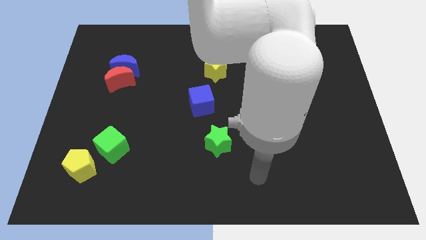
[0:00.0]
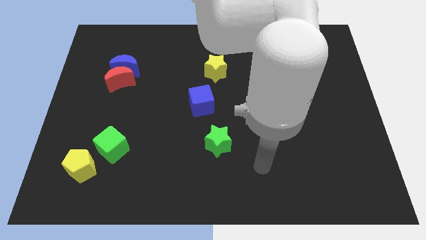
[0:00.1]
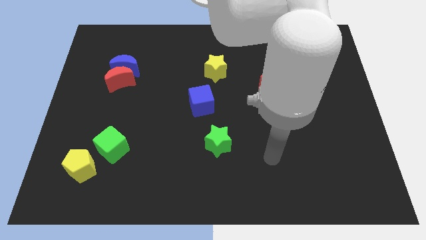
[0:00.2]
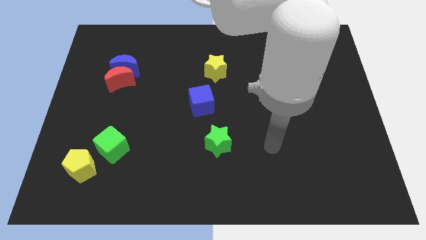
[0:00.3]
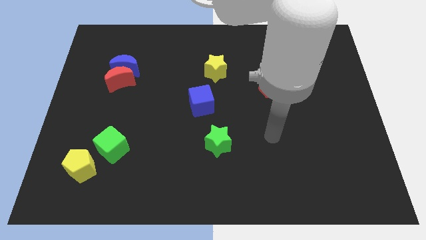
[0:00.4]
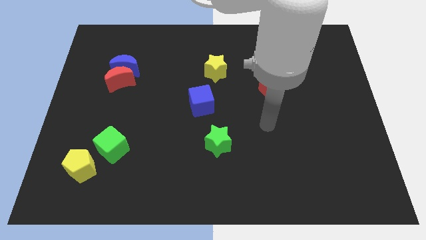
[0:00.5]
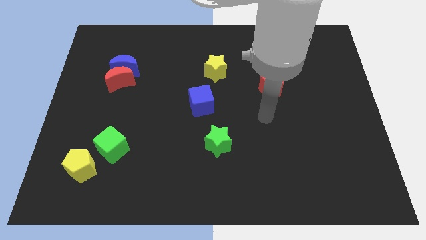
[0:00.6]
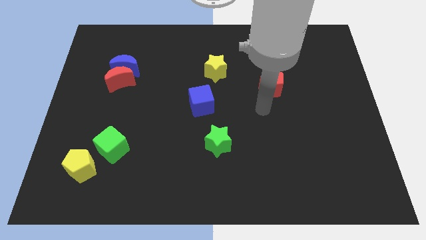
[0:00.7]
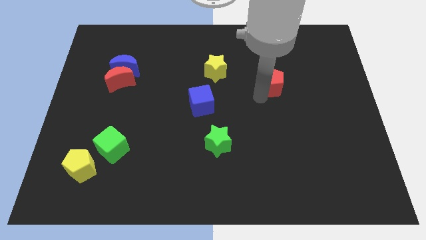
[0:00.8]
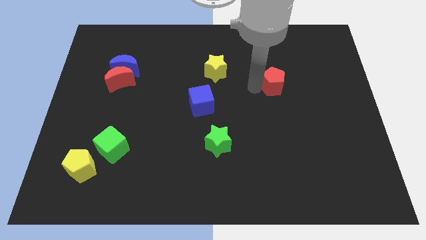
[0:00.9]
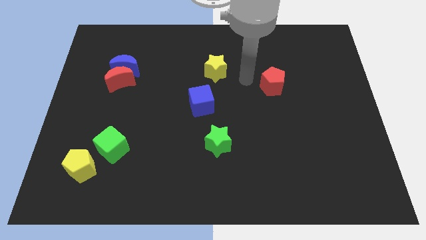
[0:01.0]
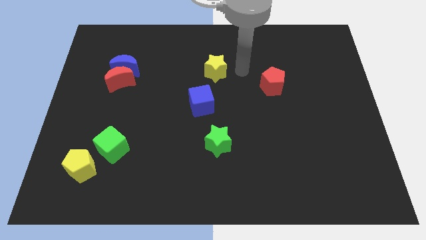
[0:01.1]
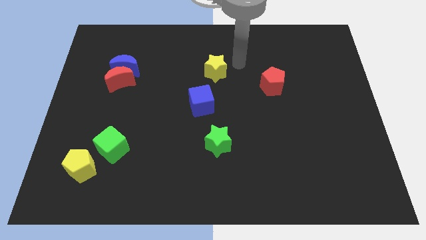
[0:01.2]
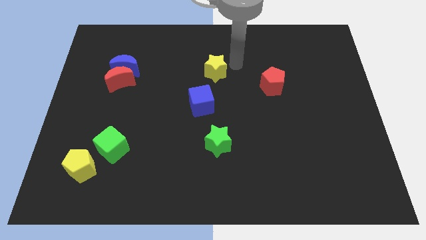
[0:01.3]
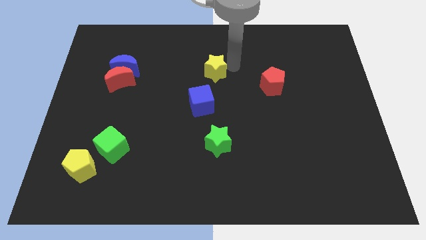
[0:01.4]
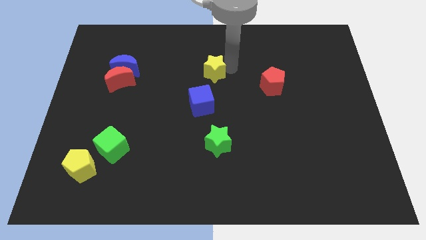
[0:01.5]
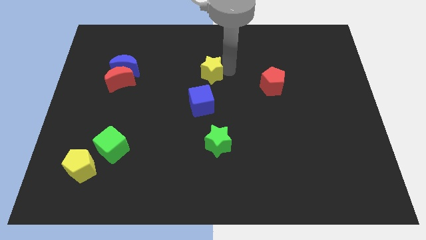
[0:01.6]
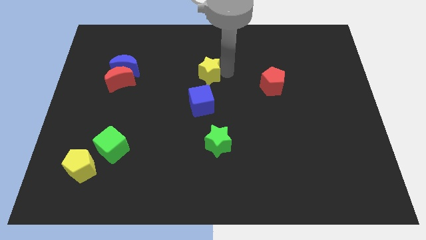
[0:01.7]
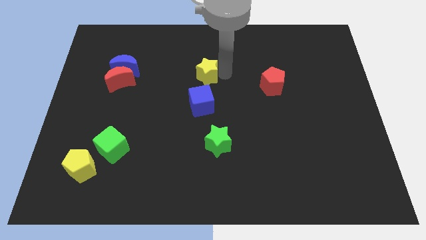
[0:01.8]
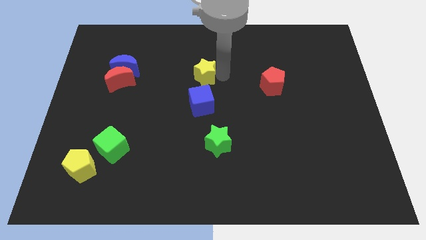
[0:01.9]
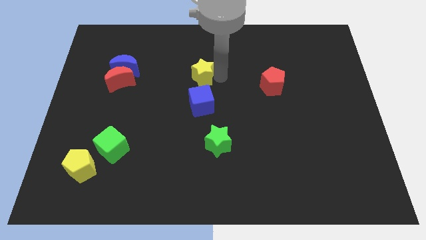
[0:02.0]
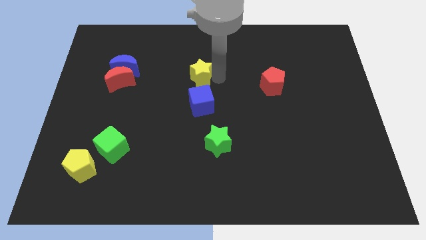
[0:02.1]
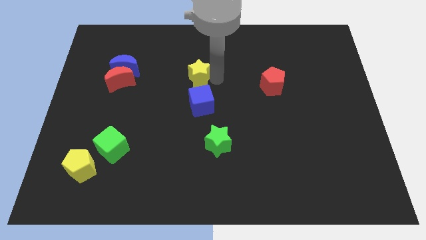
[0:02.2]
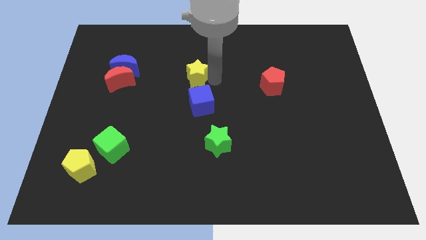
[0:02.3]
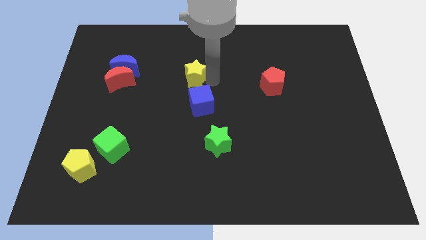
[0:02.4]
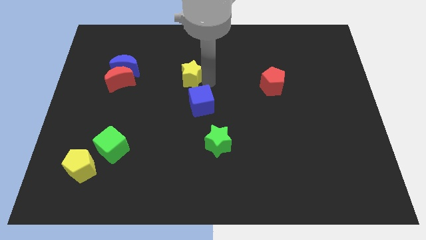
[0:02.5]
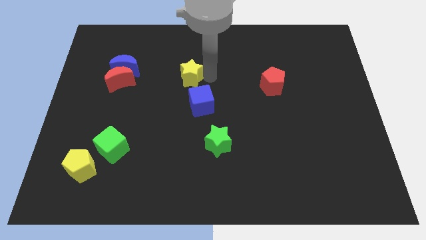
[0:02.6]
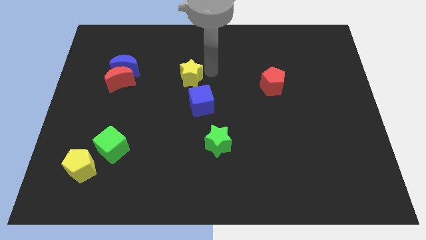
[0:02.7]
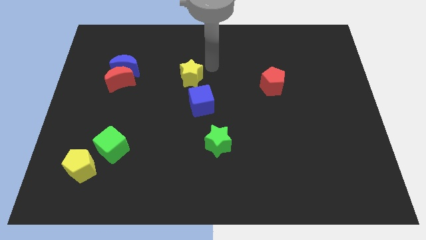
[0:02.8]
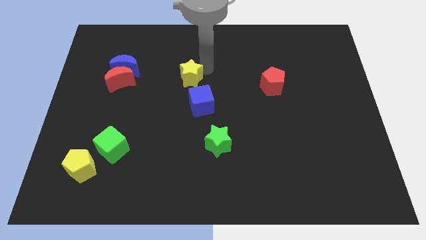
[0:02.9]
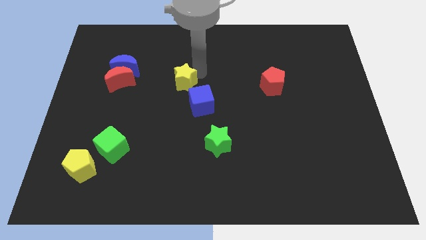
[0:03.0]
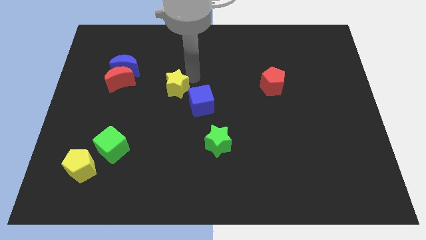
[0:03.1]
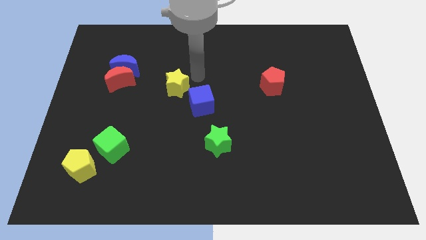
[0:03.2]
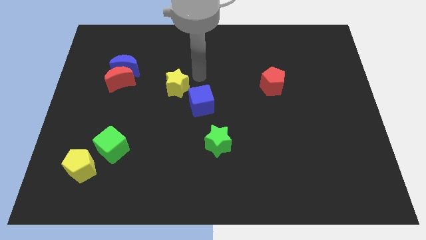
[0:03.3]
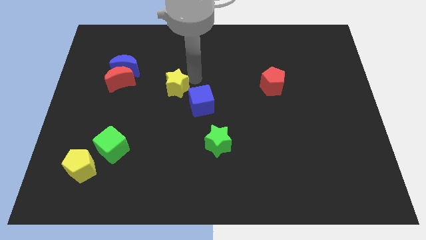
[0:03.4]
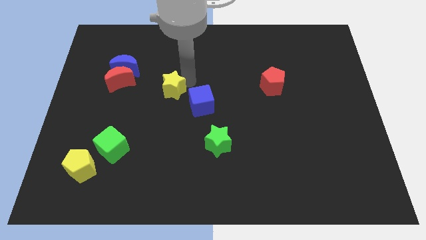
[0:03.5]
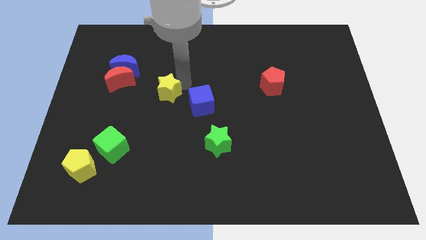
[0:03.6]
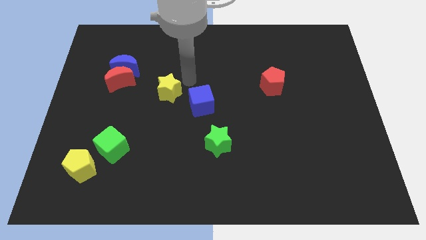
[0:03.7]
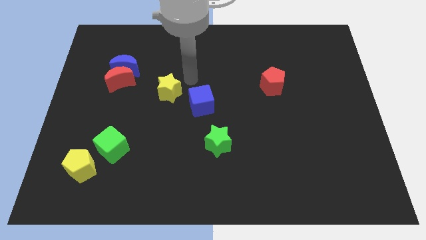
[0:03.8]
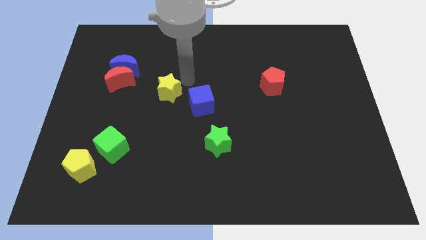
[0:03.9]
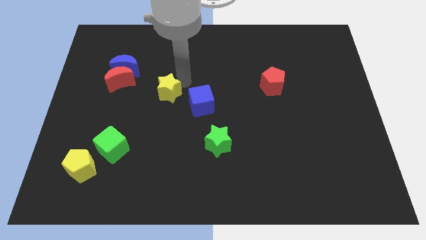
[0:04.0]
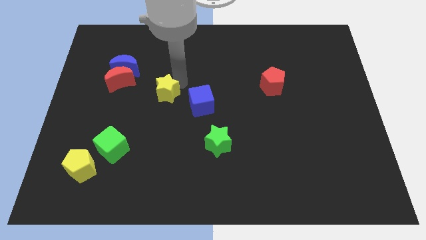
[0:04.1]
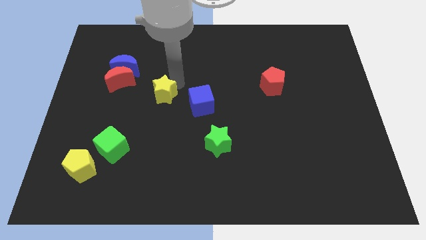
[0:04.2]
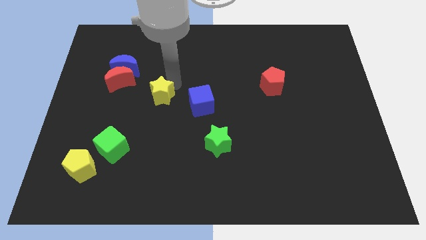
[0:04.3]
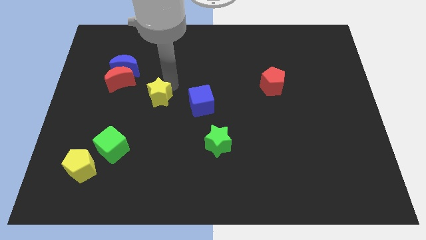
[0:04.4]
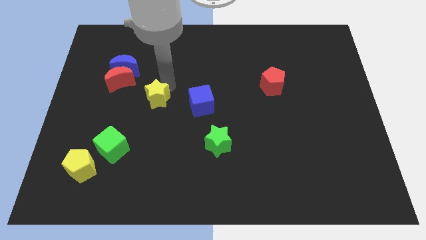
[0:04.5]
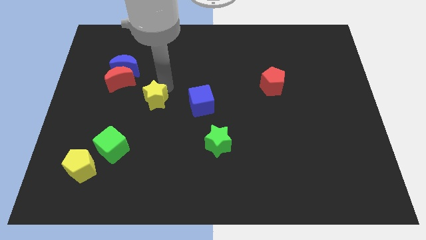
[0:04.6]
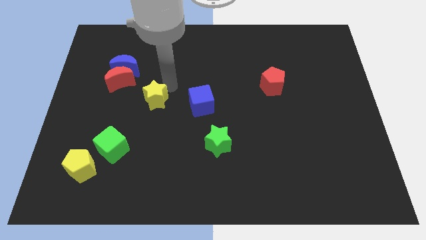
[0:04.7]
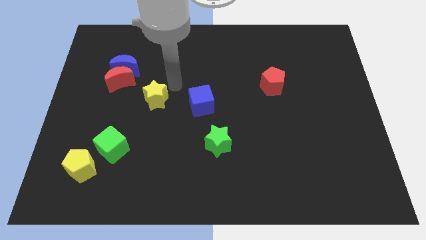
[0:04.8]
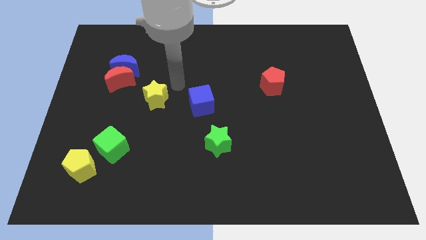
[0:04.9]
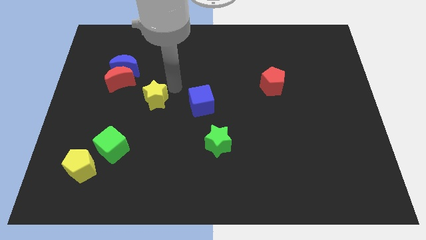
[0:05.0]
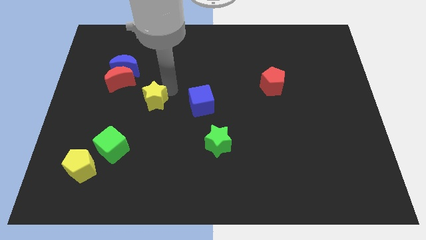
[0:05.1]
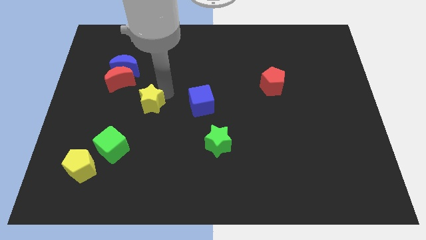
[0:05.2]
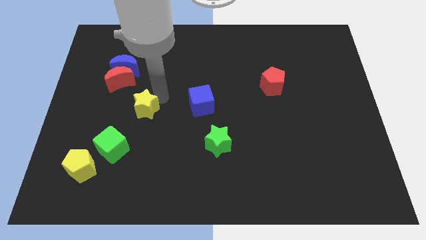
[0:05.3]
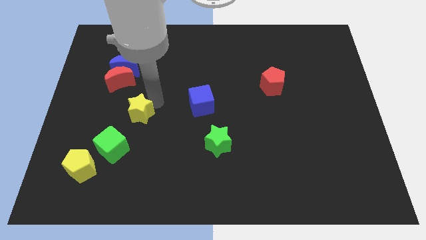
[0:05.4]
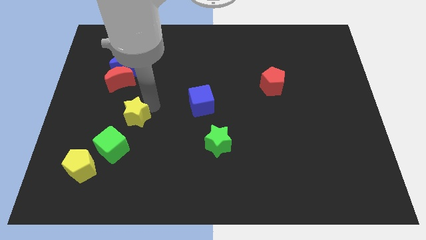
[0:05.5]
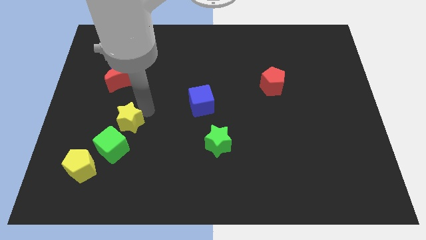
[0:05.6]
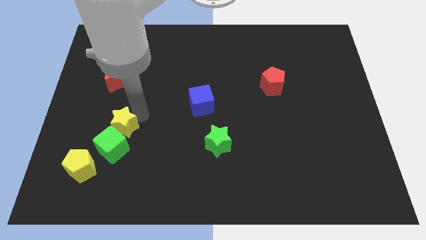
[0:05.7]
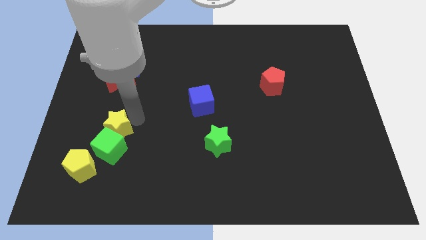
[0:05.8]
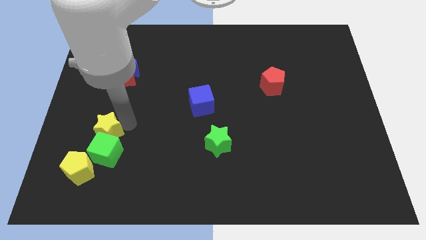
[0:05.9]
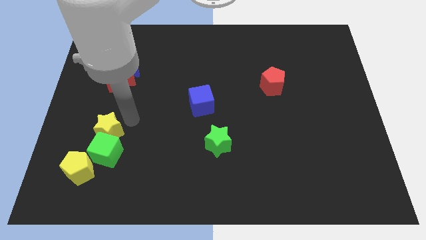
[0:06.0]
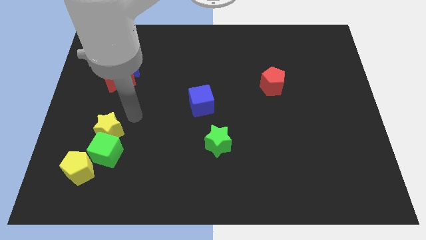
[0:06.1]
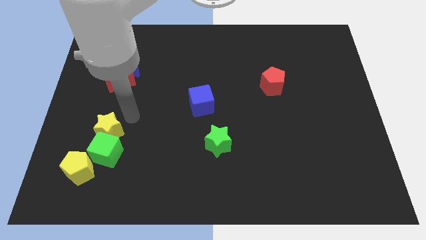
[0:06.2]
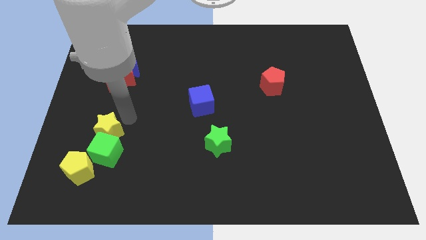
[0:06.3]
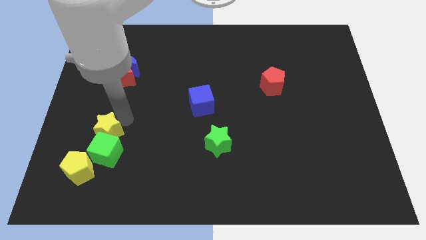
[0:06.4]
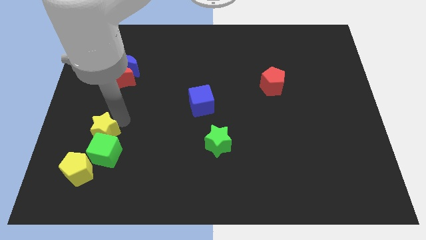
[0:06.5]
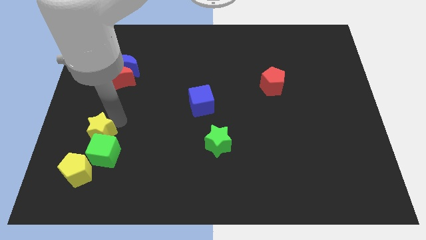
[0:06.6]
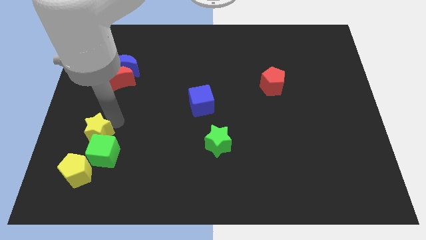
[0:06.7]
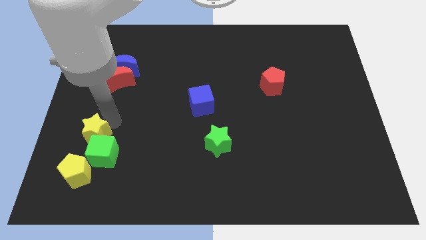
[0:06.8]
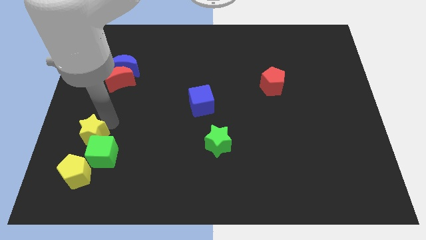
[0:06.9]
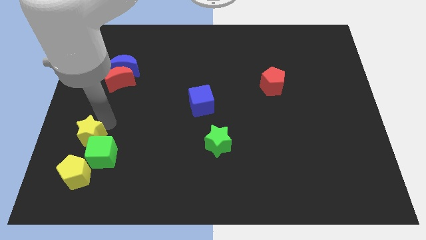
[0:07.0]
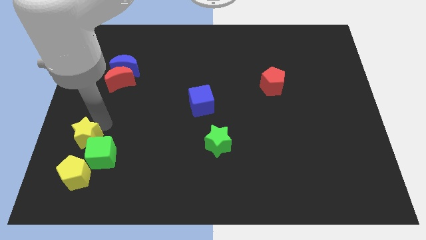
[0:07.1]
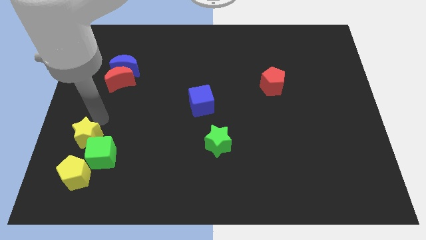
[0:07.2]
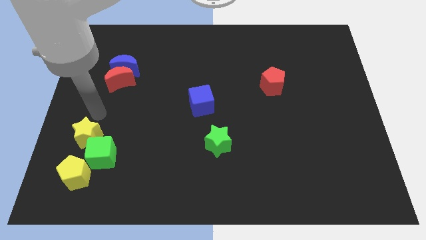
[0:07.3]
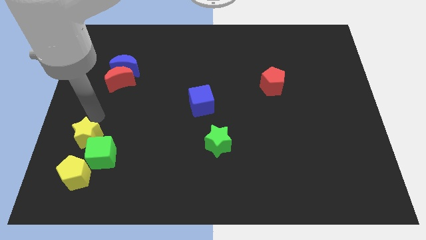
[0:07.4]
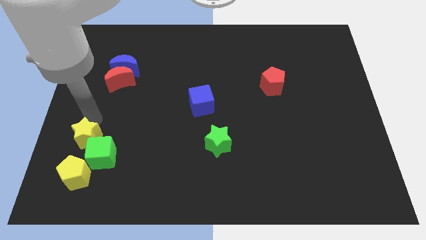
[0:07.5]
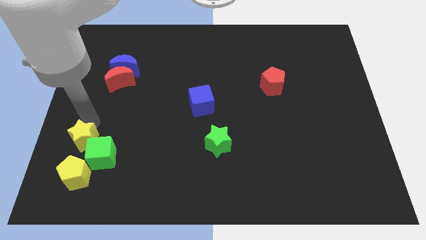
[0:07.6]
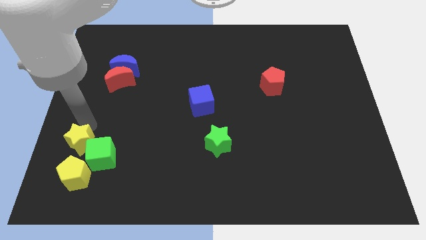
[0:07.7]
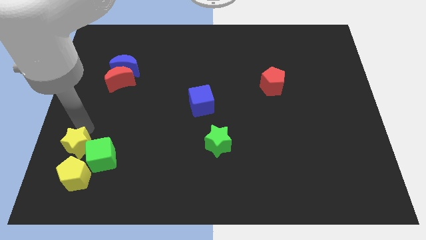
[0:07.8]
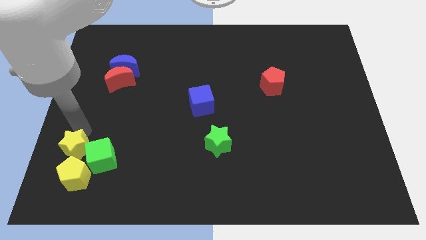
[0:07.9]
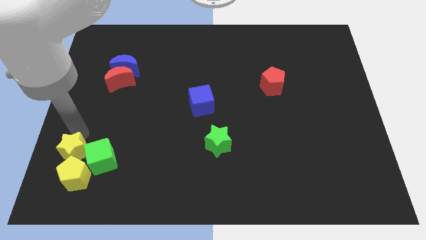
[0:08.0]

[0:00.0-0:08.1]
push the yellow star towards the yellow pentagon
